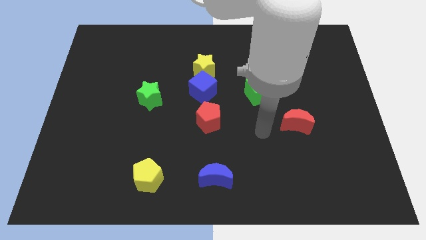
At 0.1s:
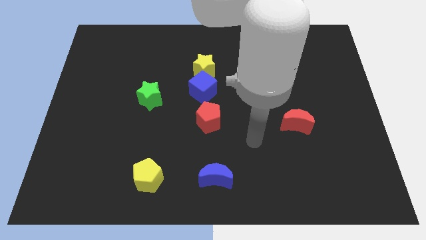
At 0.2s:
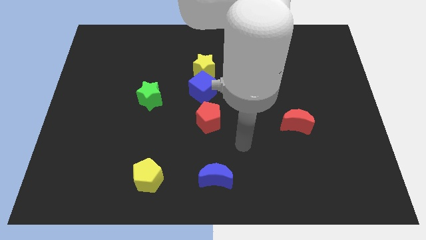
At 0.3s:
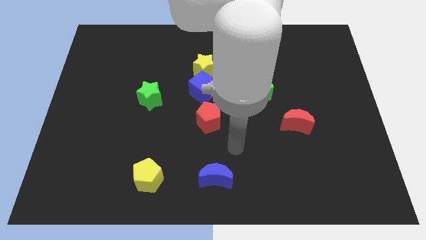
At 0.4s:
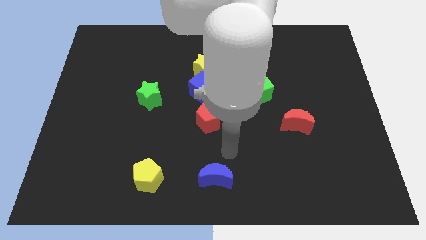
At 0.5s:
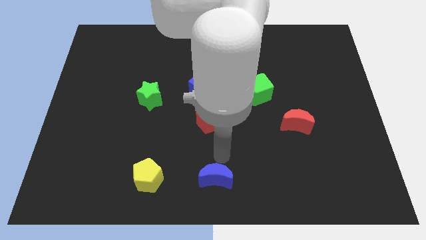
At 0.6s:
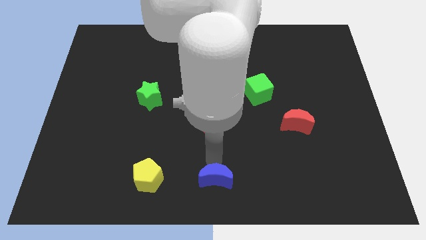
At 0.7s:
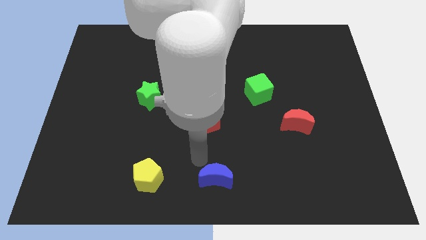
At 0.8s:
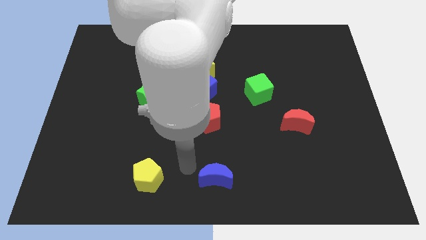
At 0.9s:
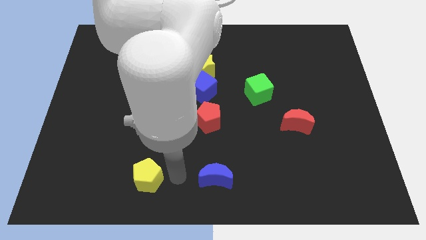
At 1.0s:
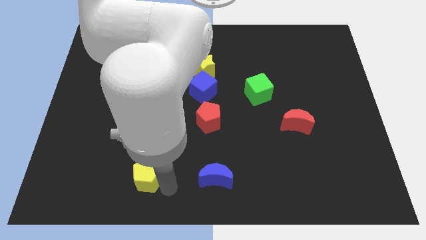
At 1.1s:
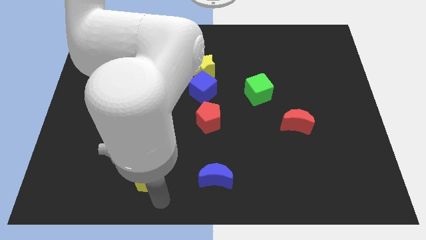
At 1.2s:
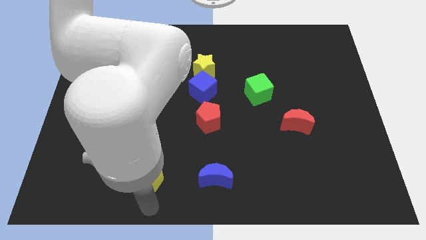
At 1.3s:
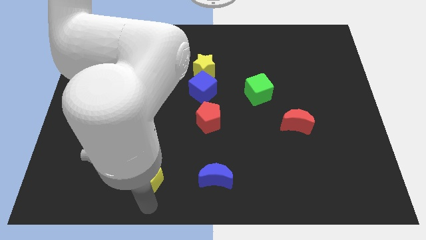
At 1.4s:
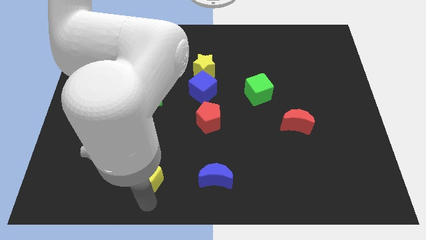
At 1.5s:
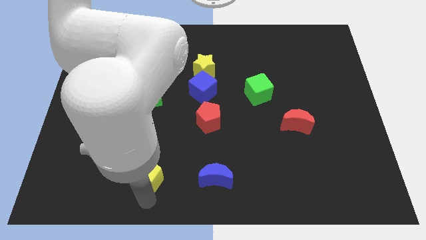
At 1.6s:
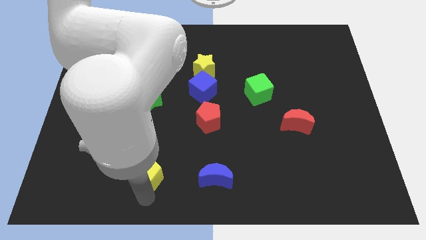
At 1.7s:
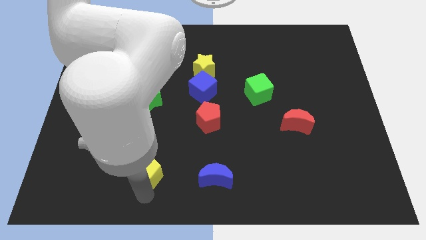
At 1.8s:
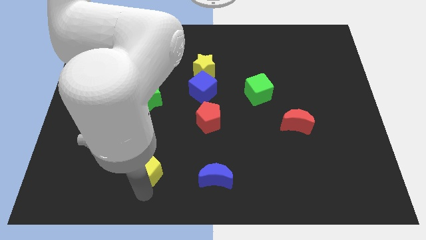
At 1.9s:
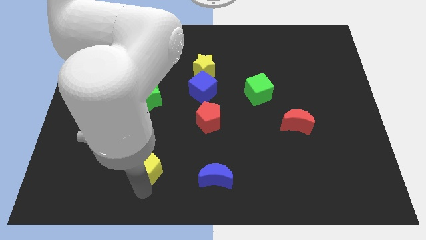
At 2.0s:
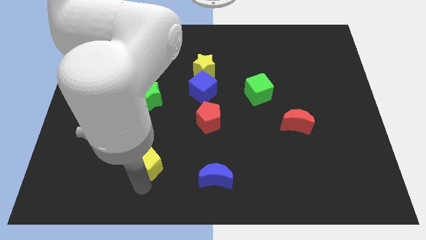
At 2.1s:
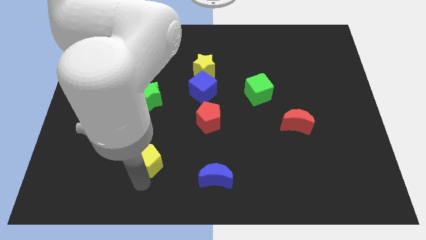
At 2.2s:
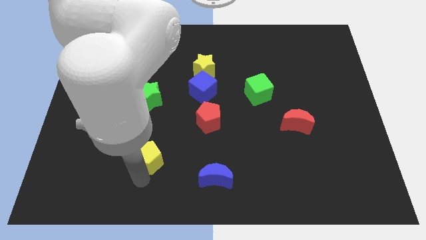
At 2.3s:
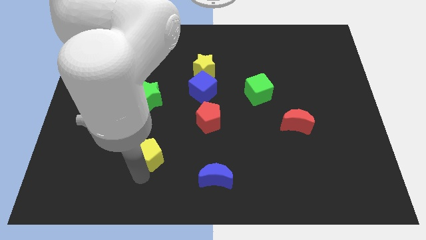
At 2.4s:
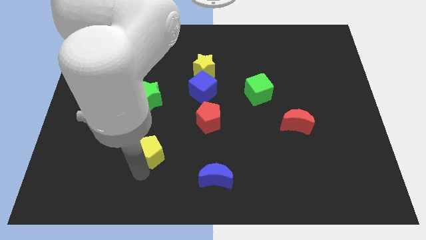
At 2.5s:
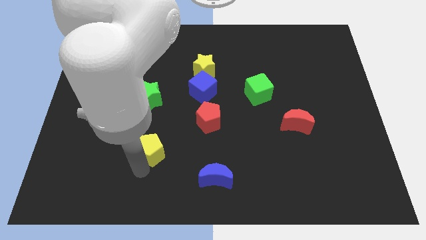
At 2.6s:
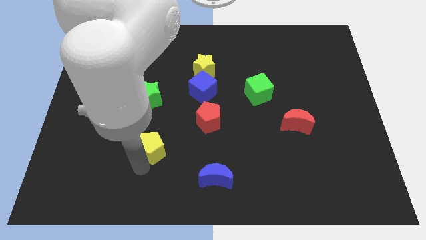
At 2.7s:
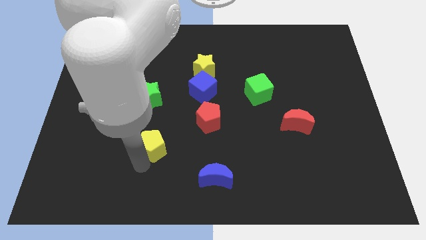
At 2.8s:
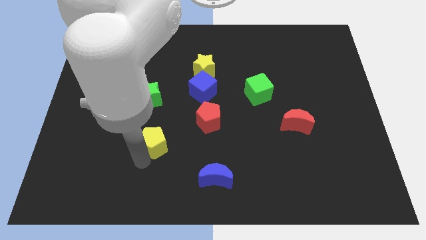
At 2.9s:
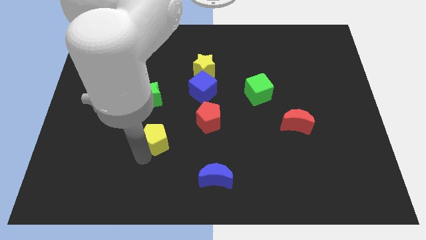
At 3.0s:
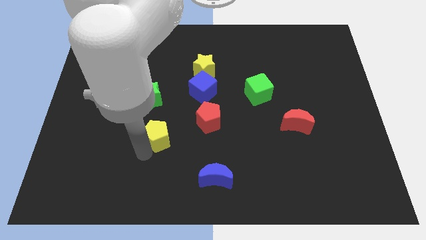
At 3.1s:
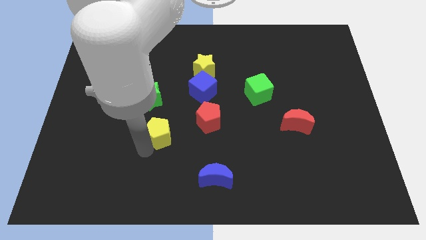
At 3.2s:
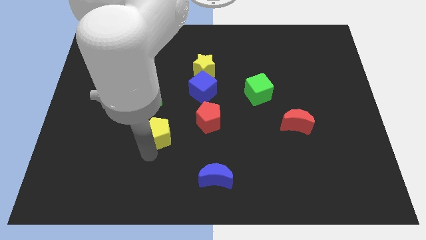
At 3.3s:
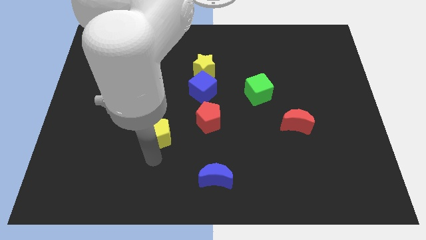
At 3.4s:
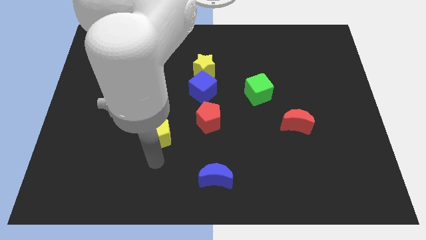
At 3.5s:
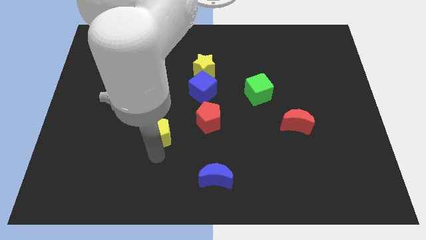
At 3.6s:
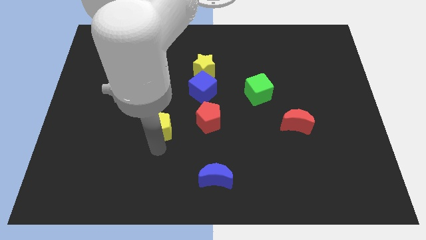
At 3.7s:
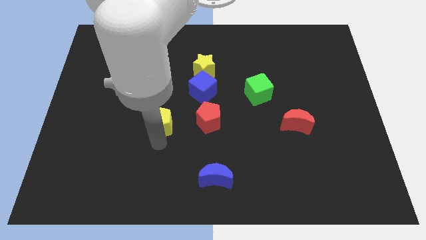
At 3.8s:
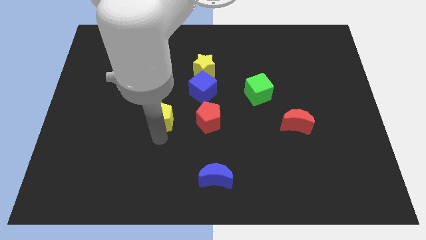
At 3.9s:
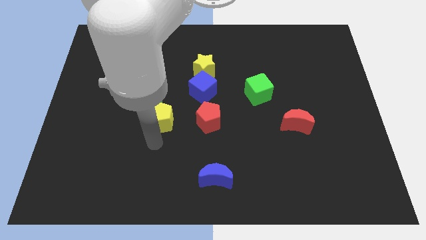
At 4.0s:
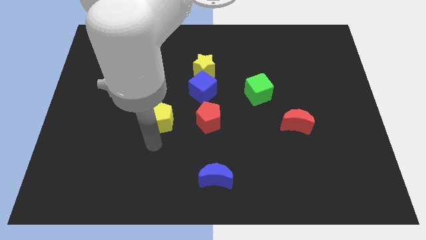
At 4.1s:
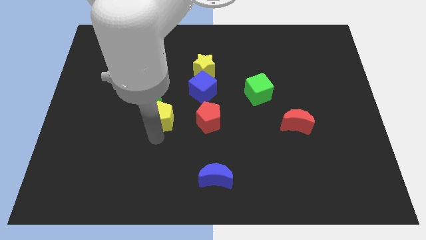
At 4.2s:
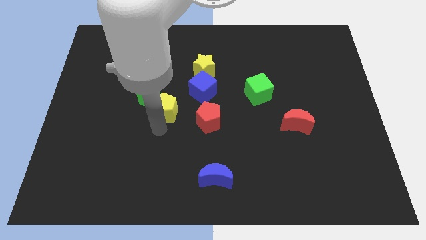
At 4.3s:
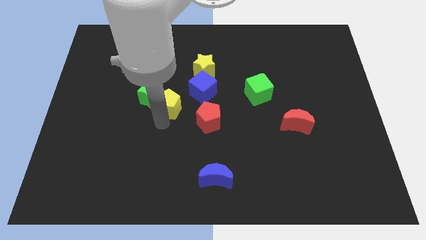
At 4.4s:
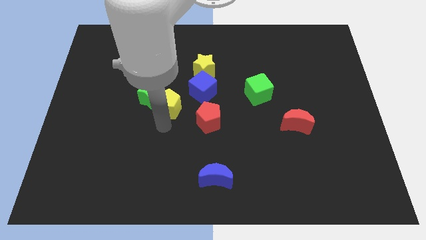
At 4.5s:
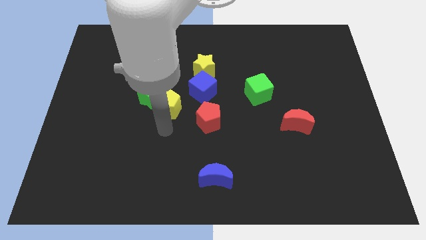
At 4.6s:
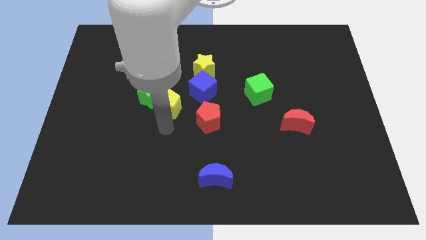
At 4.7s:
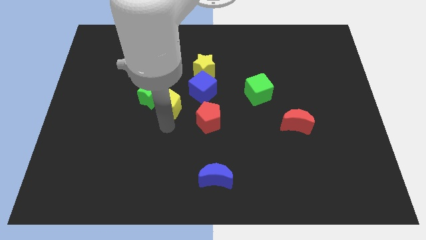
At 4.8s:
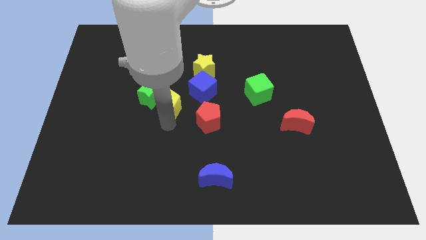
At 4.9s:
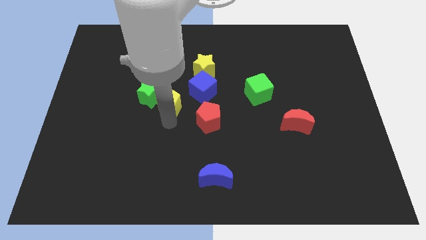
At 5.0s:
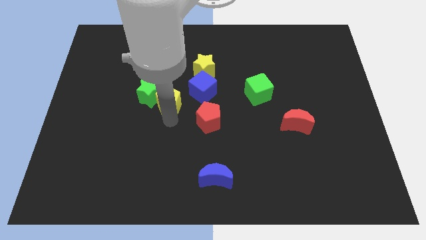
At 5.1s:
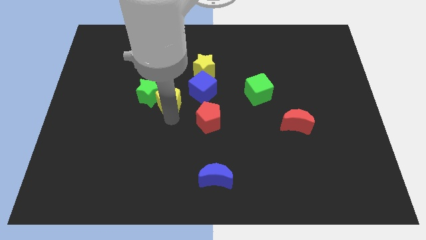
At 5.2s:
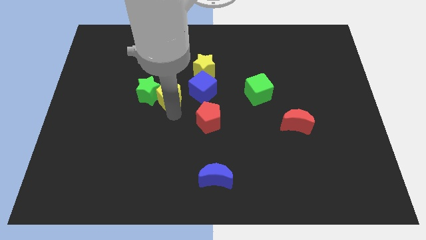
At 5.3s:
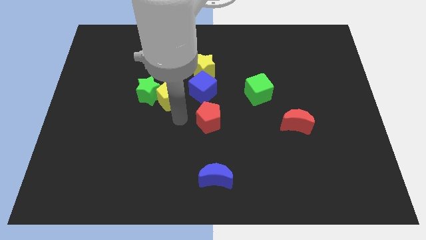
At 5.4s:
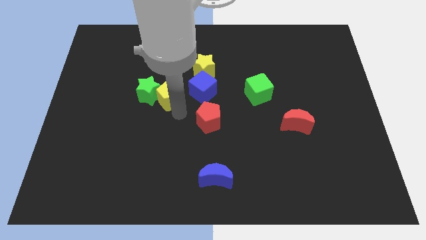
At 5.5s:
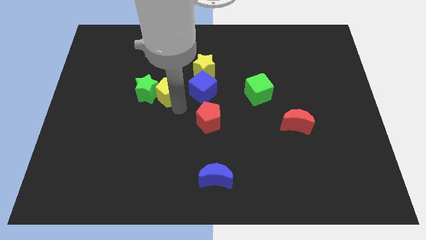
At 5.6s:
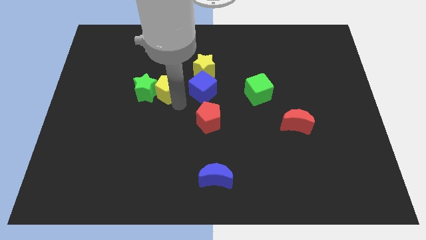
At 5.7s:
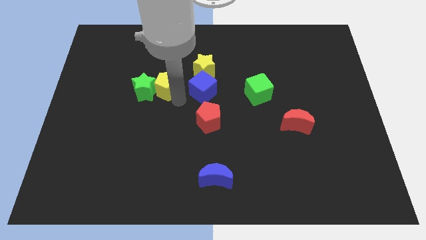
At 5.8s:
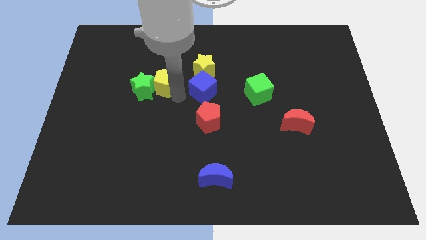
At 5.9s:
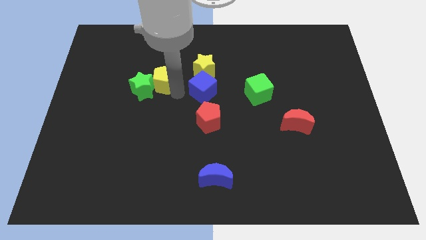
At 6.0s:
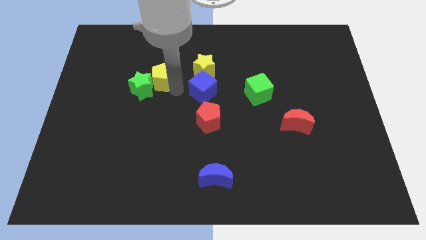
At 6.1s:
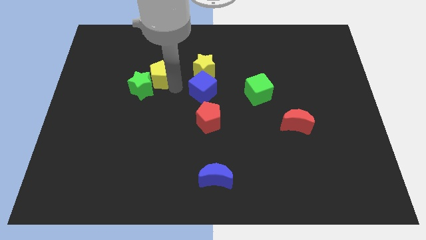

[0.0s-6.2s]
slide the yellow pentagon above the green star

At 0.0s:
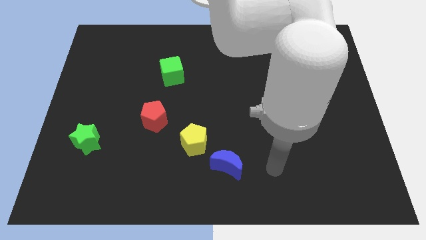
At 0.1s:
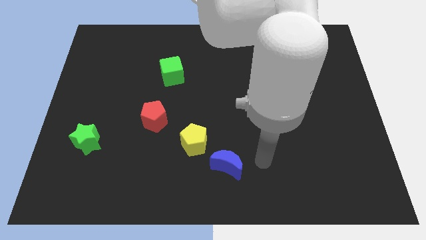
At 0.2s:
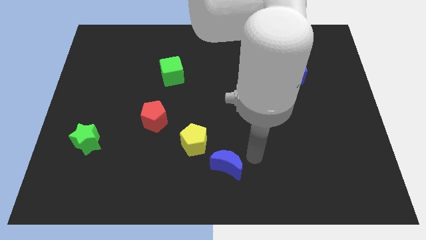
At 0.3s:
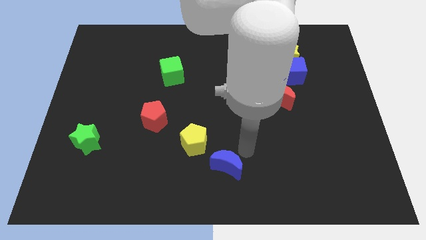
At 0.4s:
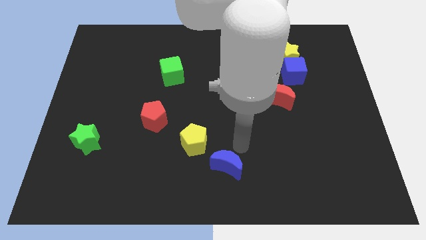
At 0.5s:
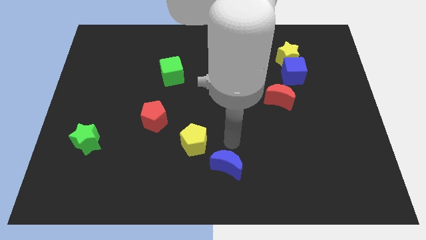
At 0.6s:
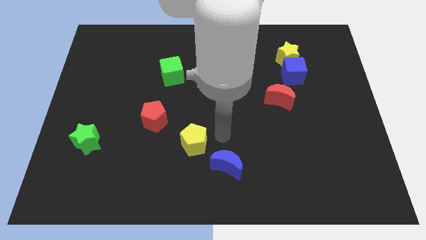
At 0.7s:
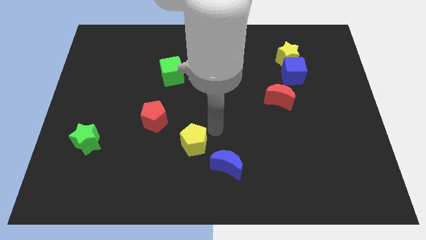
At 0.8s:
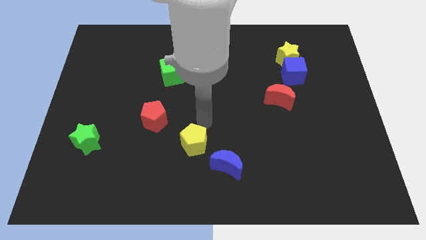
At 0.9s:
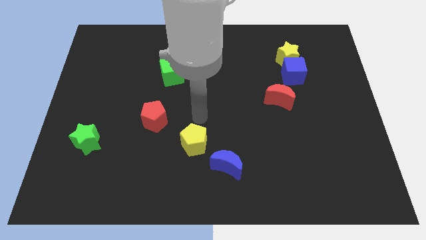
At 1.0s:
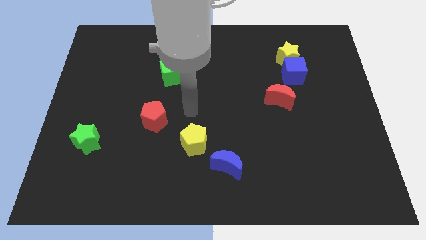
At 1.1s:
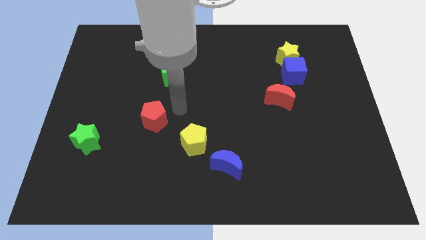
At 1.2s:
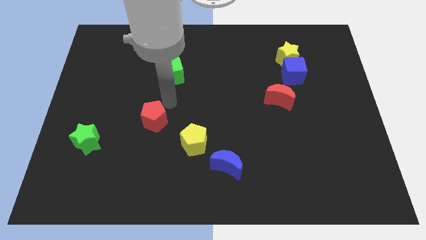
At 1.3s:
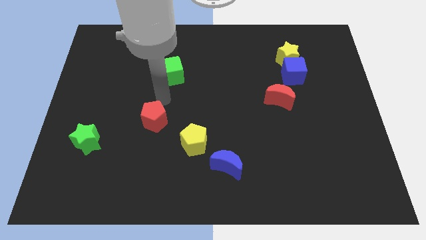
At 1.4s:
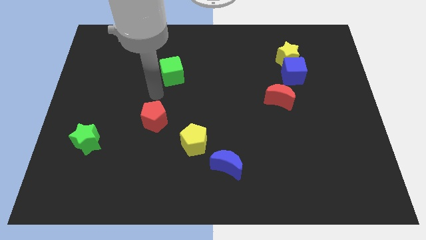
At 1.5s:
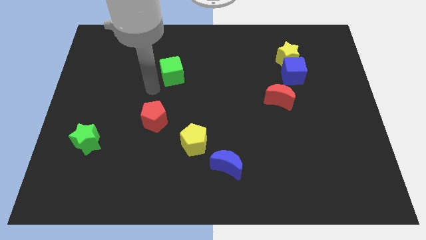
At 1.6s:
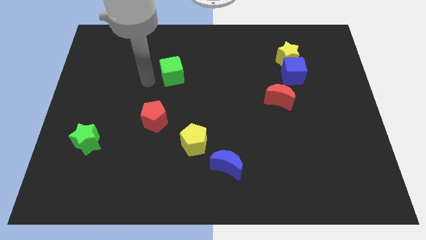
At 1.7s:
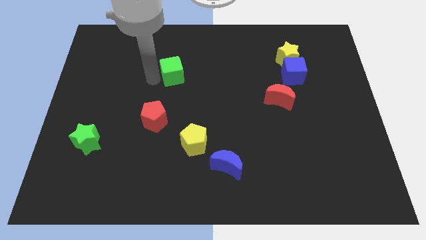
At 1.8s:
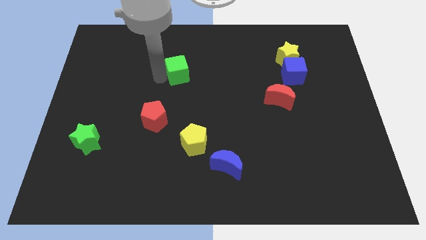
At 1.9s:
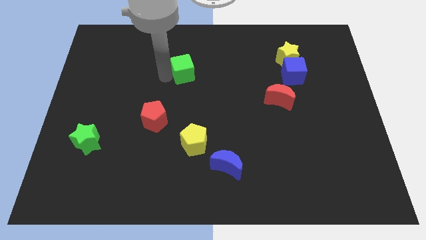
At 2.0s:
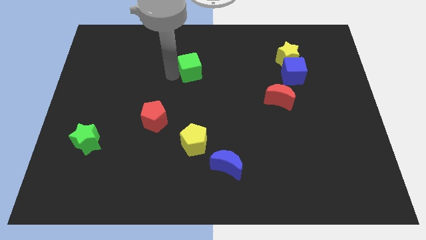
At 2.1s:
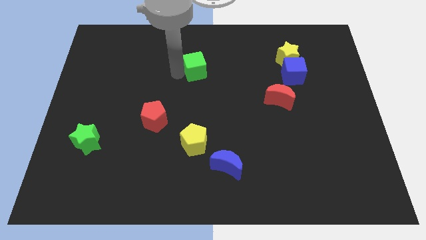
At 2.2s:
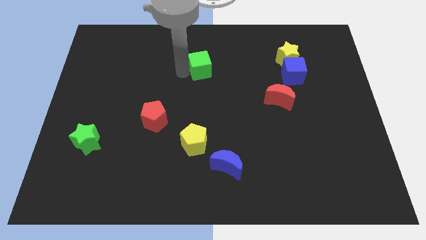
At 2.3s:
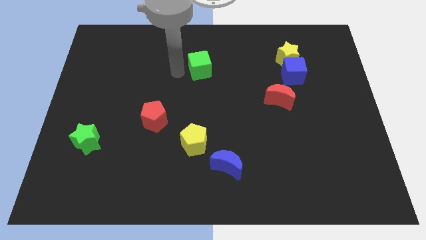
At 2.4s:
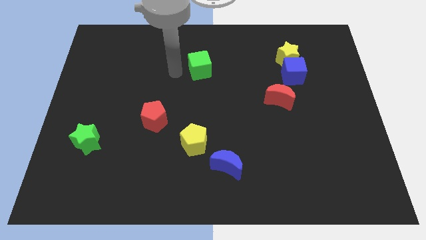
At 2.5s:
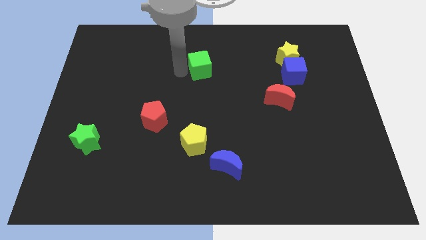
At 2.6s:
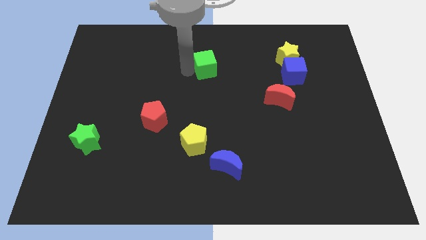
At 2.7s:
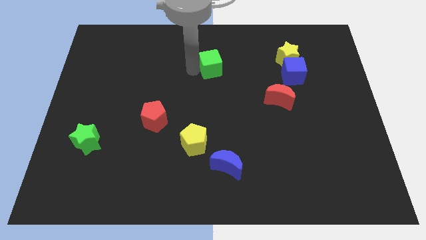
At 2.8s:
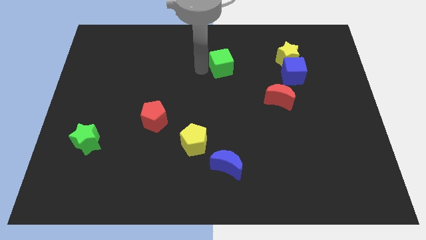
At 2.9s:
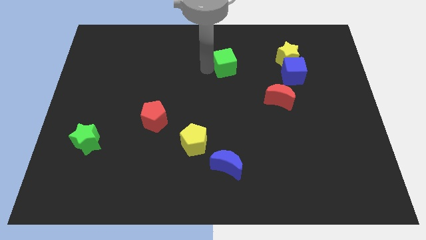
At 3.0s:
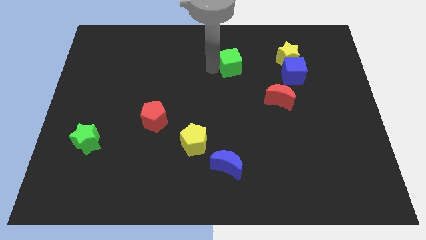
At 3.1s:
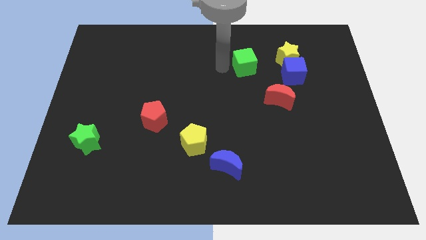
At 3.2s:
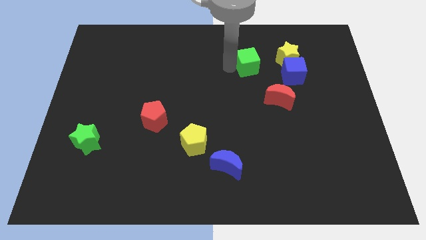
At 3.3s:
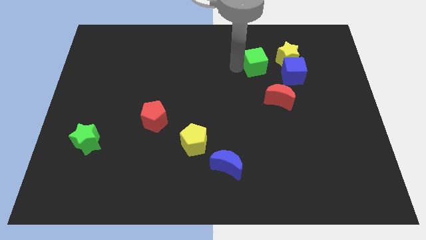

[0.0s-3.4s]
move the green cube to the top left side of the blue cube
